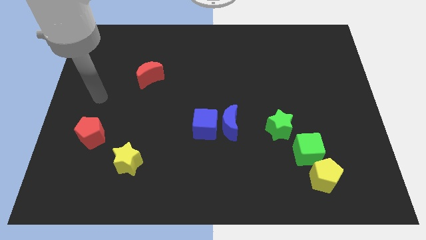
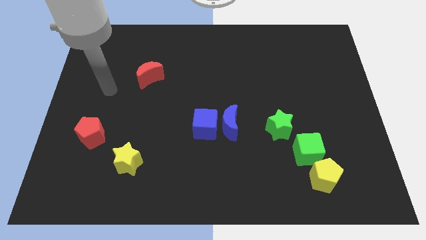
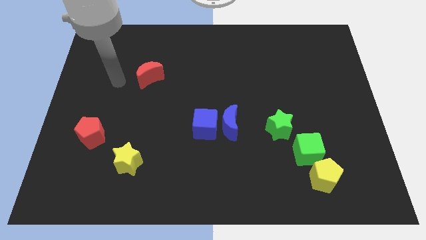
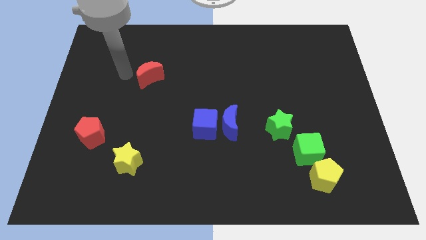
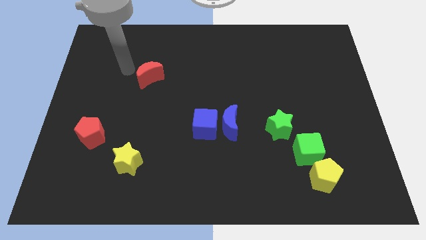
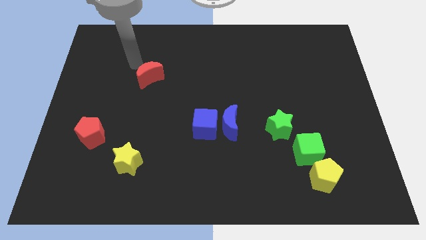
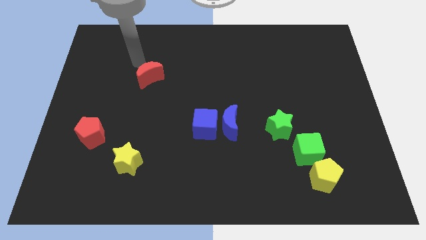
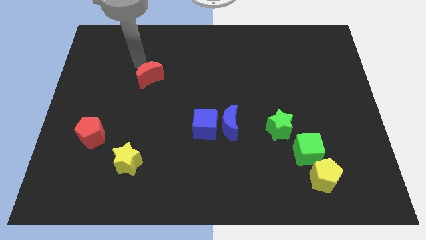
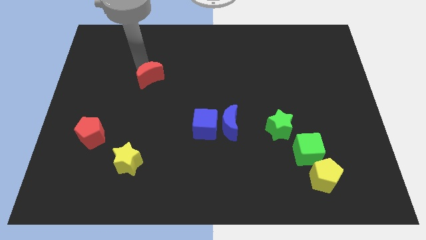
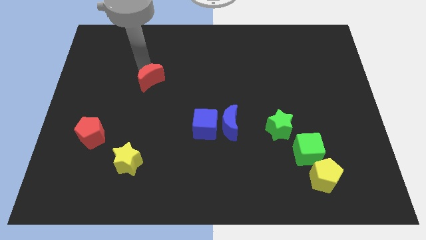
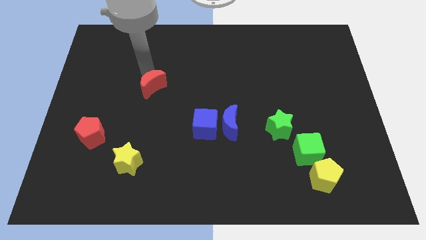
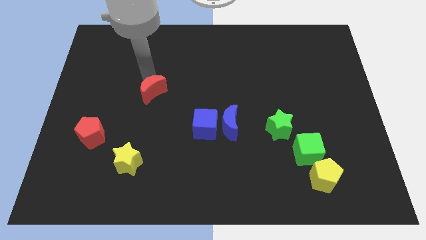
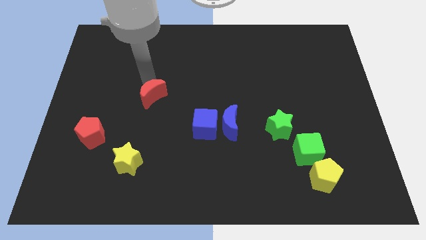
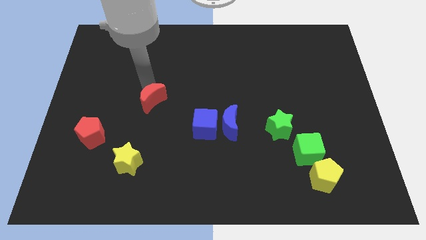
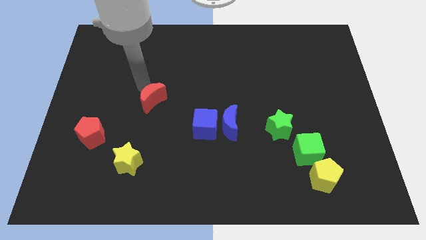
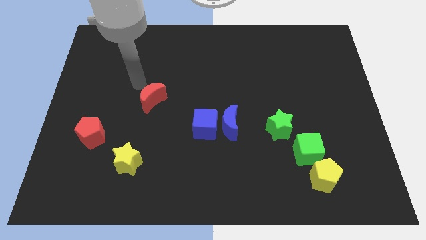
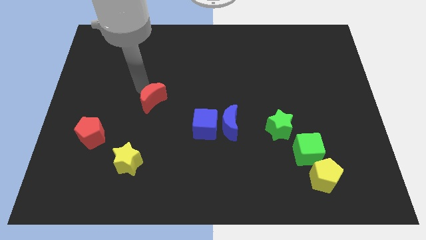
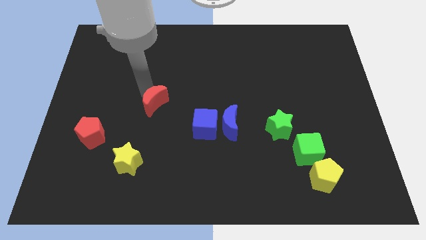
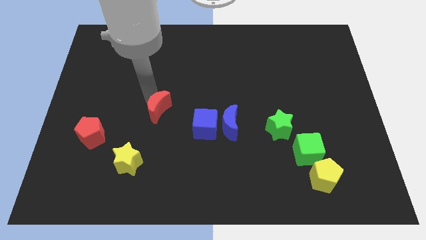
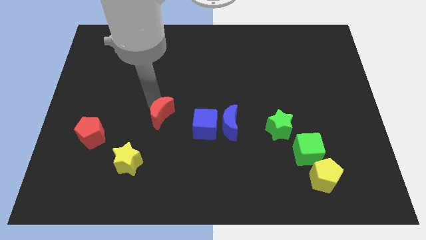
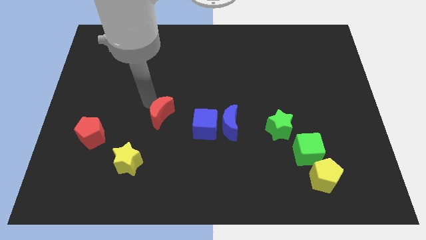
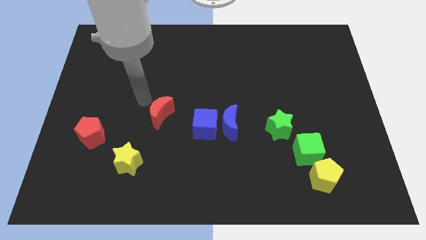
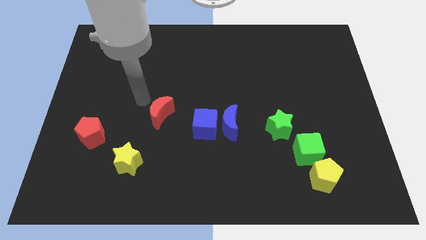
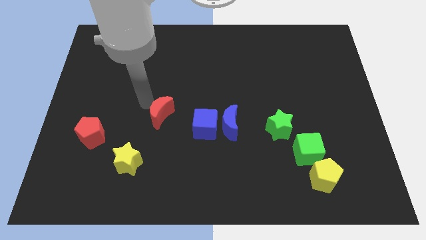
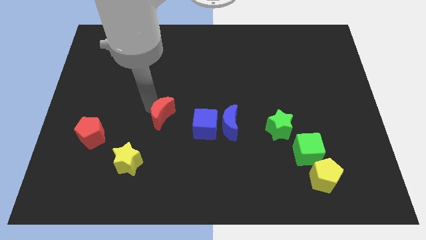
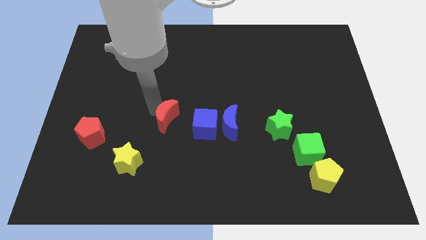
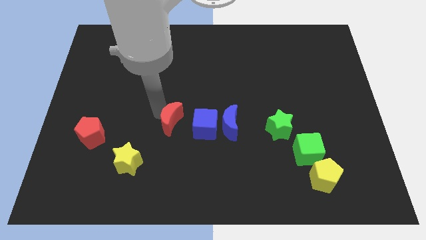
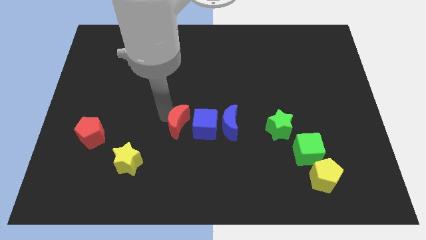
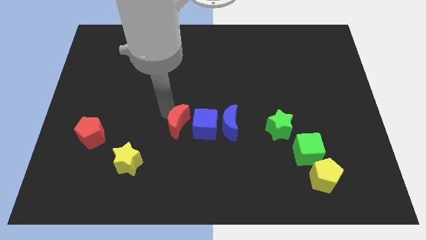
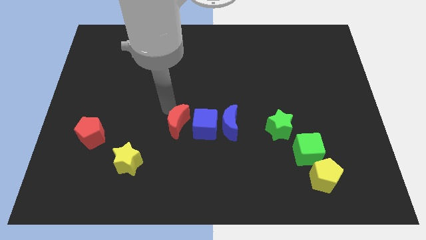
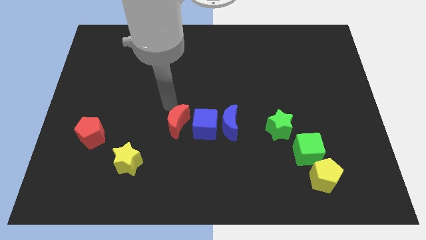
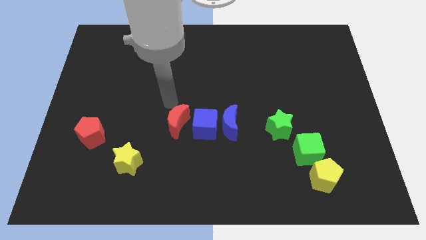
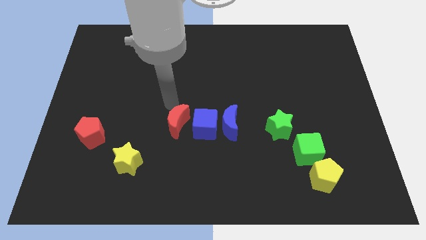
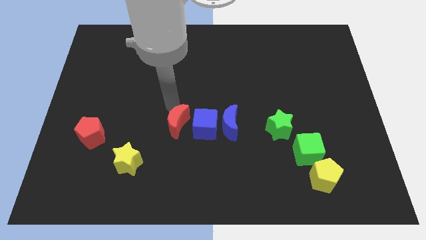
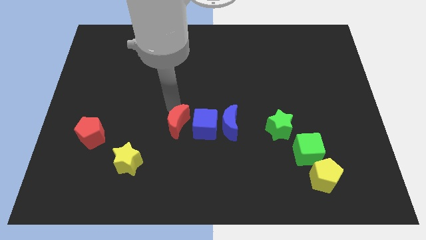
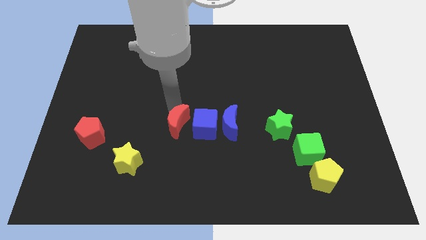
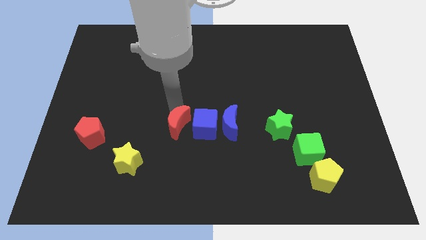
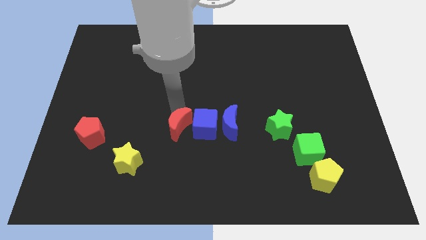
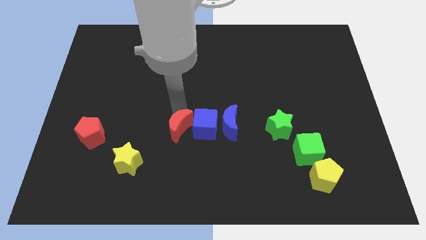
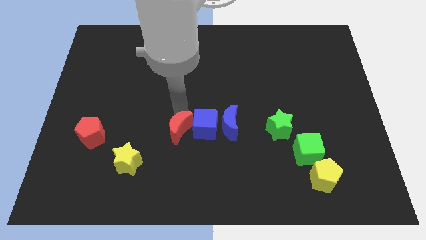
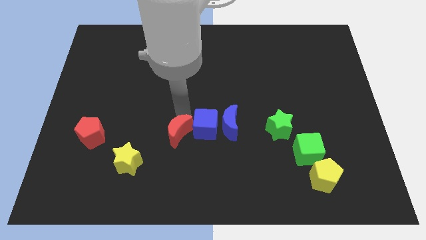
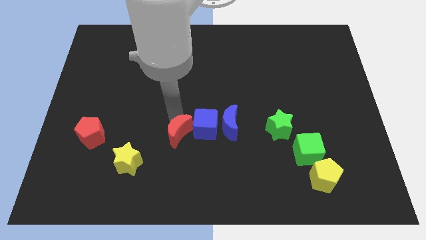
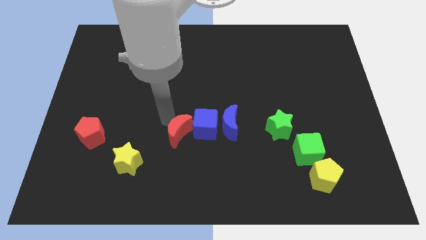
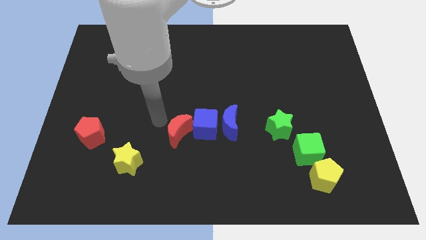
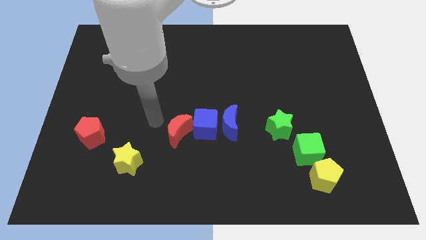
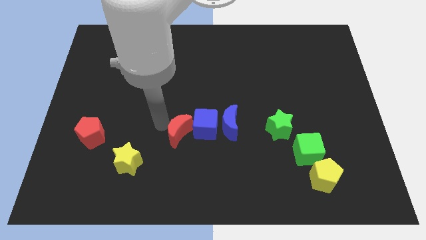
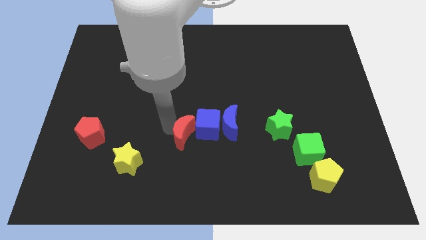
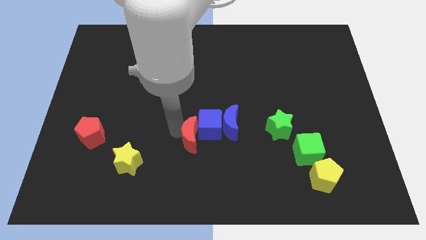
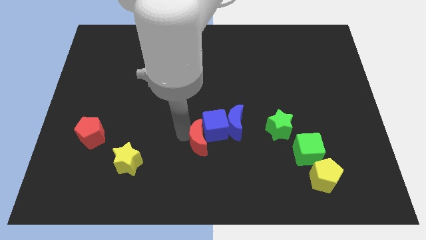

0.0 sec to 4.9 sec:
move the red moon down and then to the right

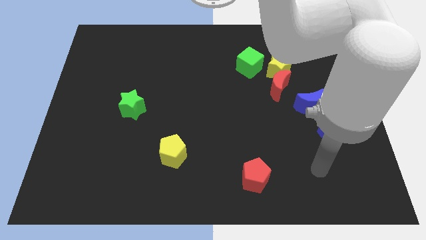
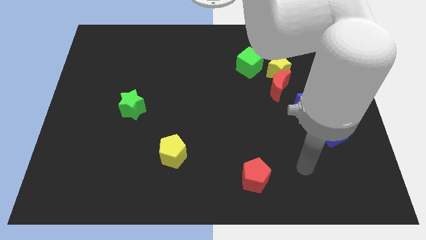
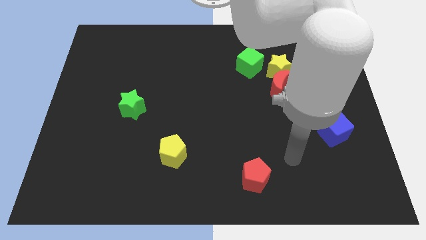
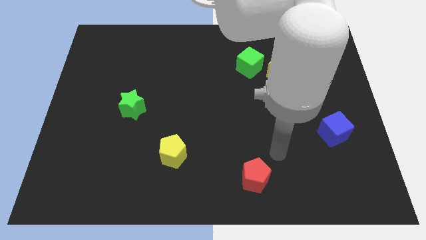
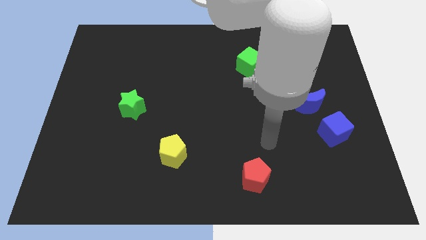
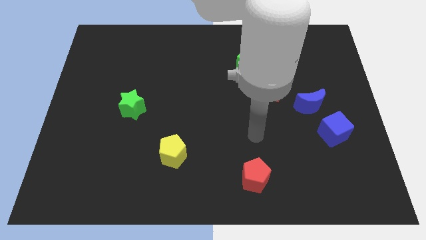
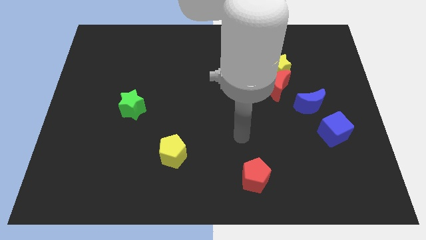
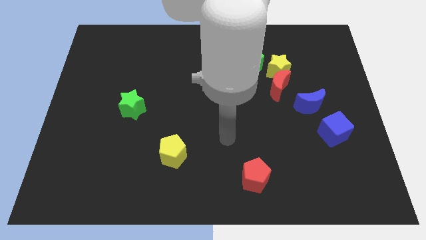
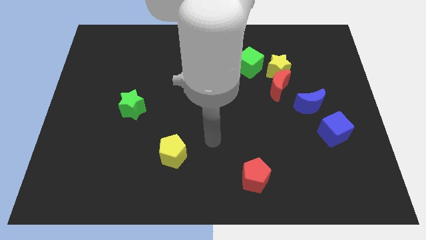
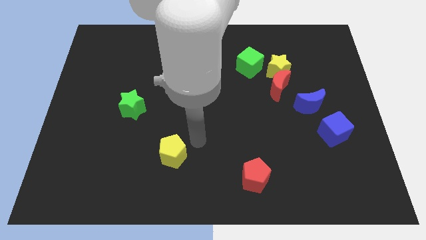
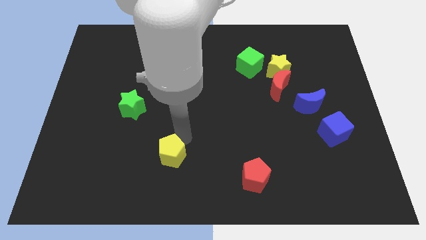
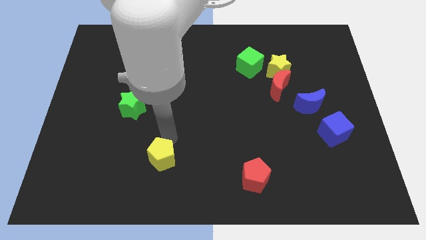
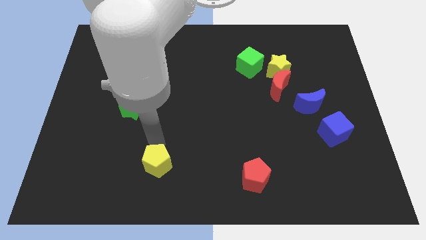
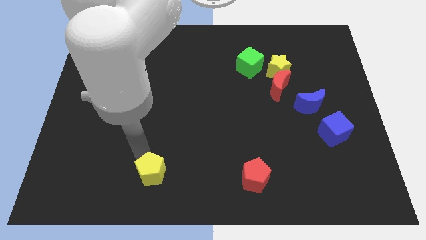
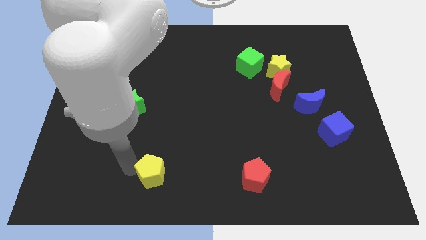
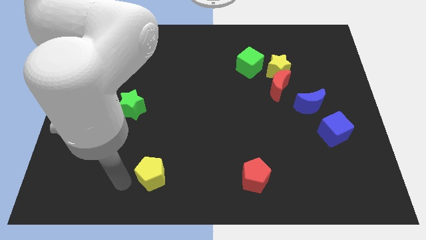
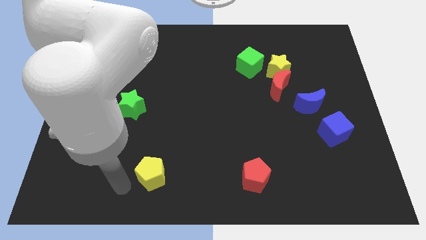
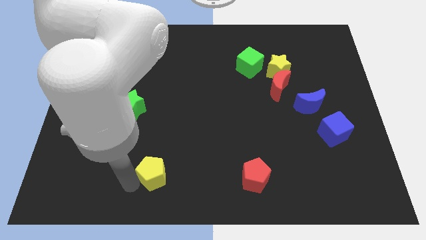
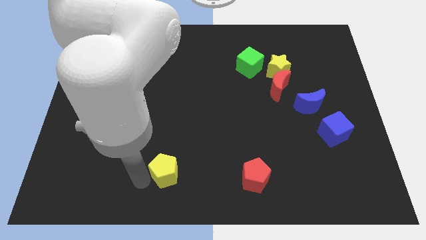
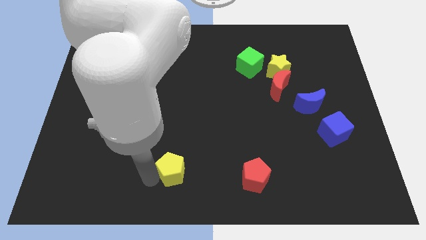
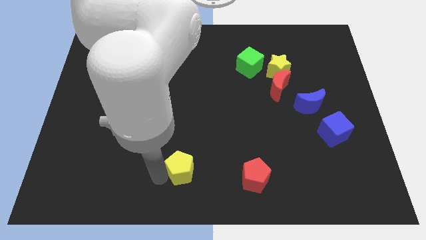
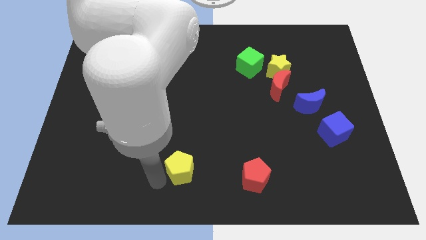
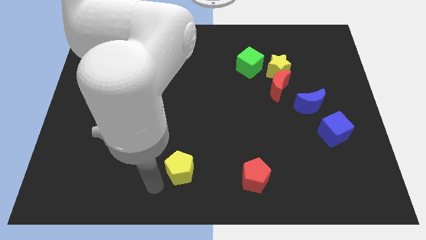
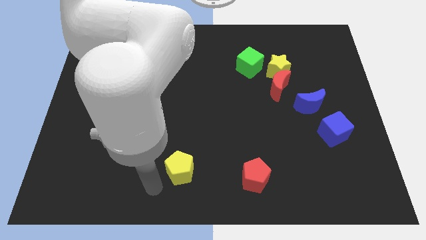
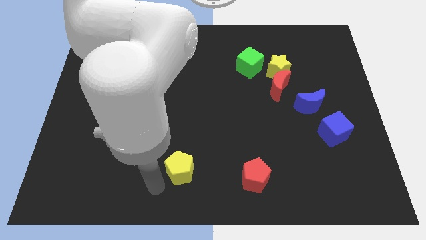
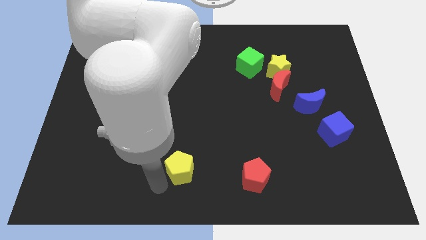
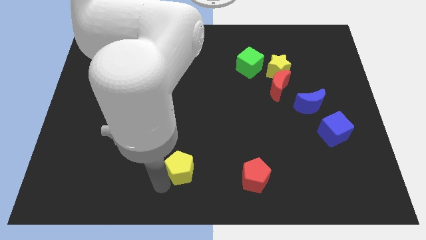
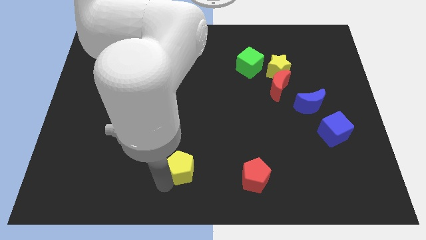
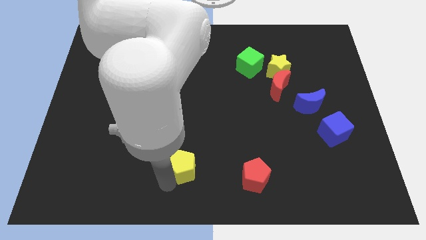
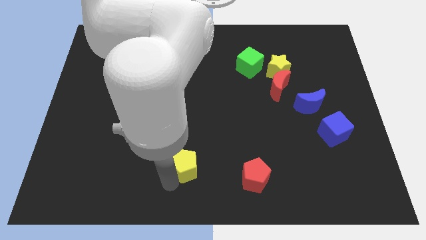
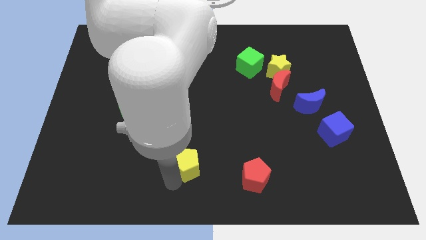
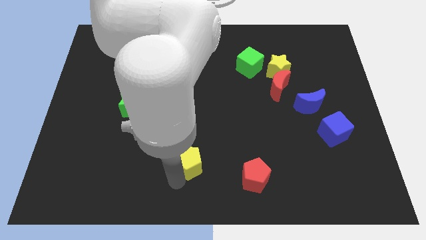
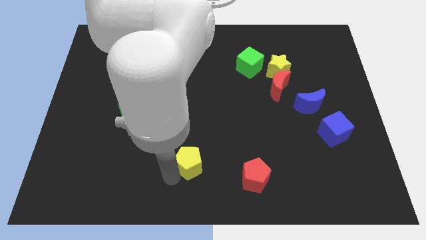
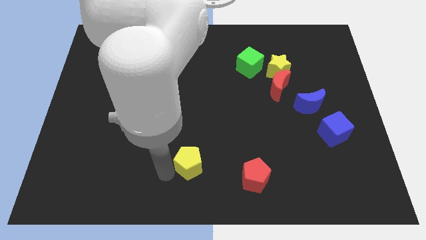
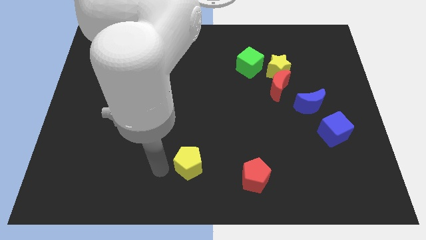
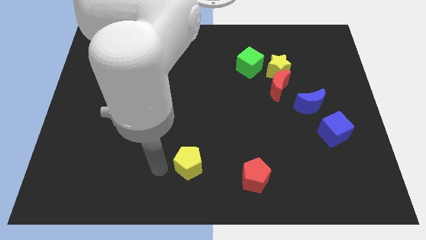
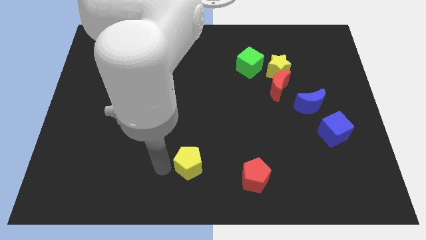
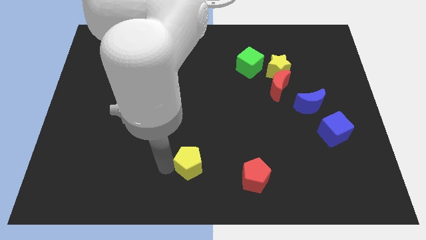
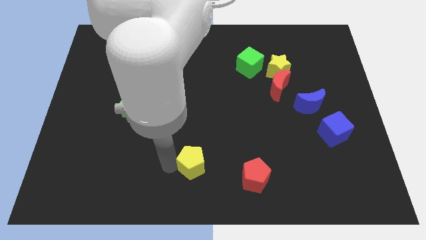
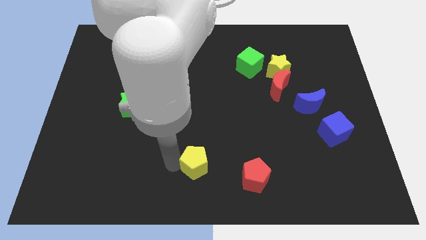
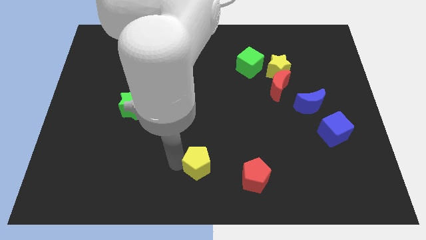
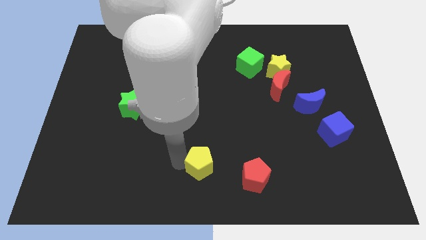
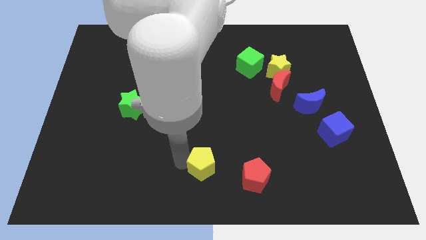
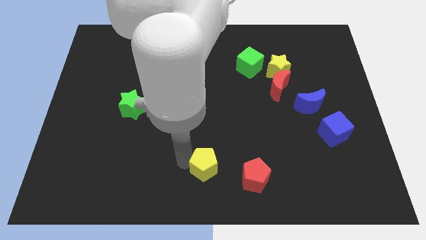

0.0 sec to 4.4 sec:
move the yellow pentagon to the right slightly
